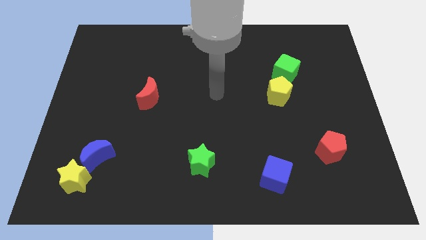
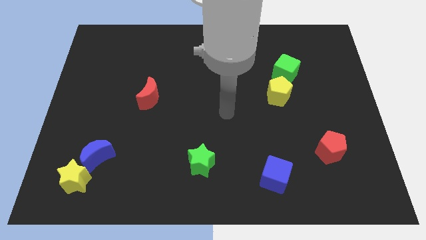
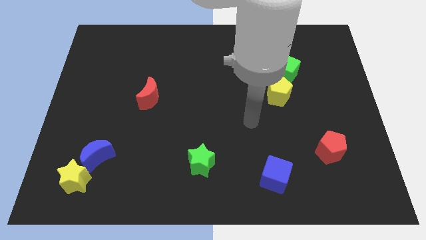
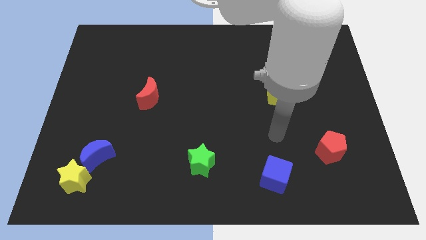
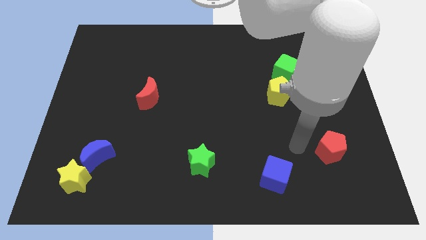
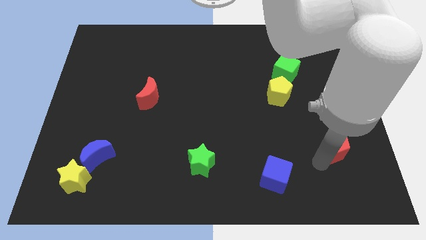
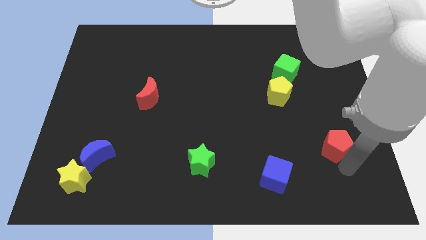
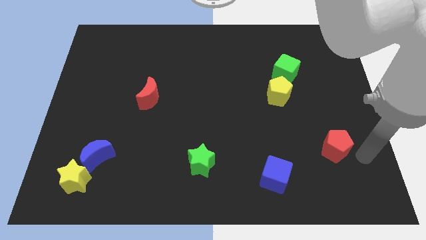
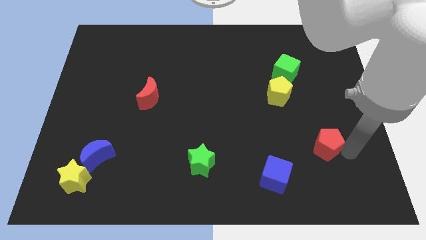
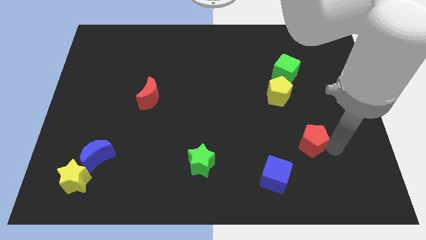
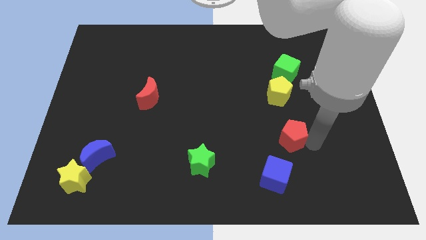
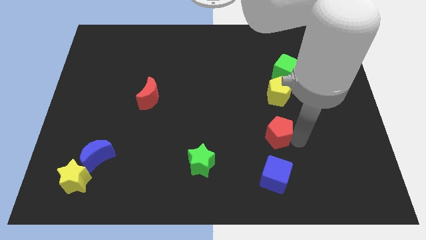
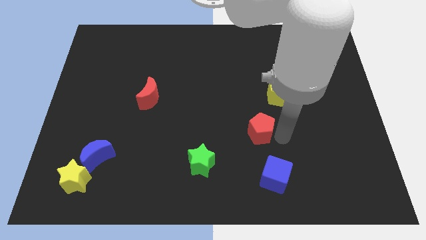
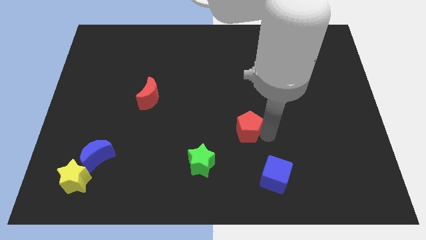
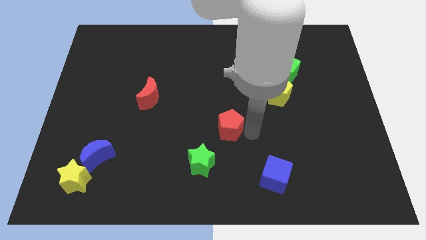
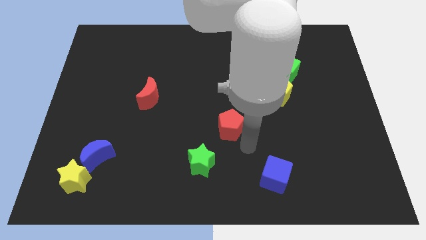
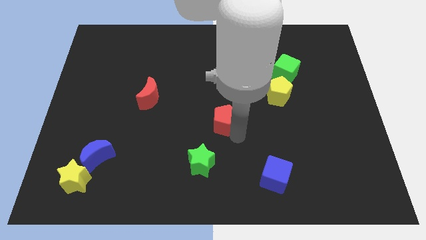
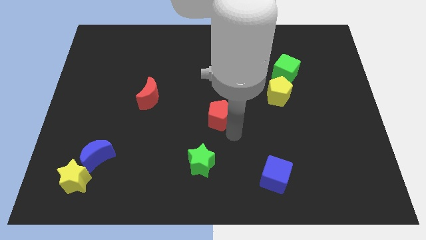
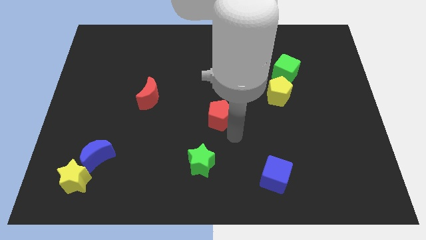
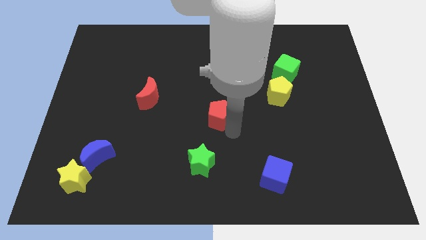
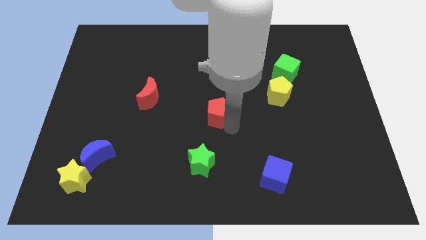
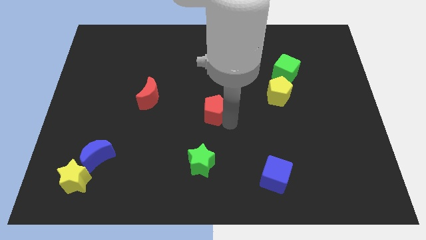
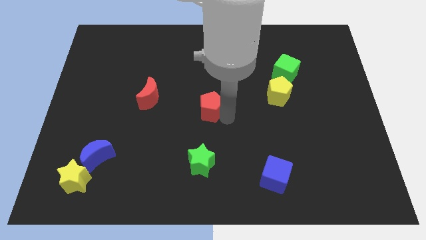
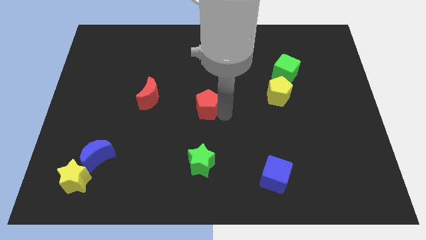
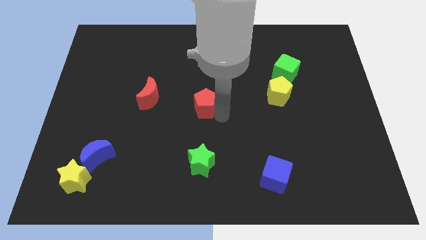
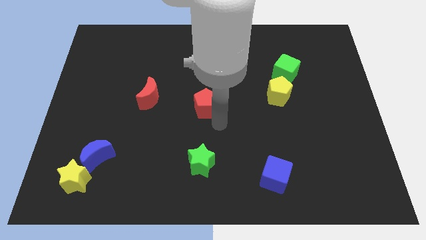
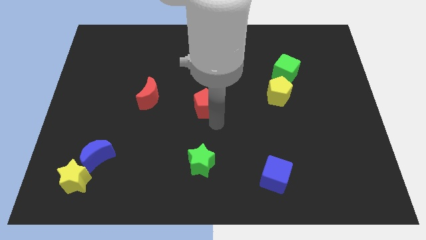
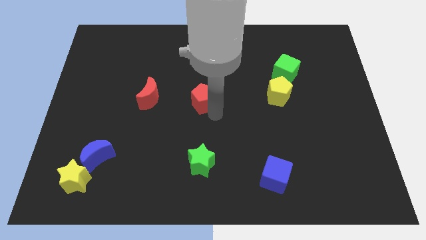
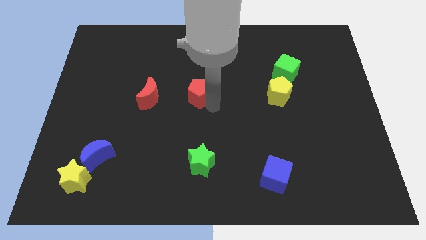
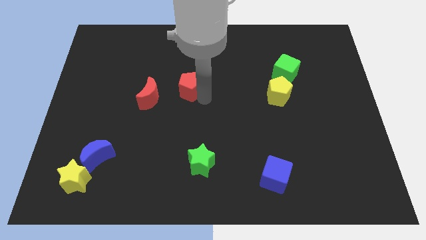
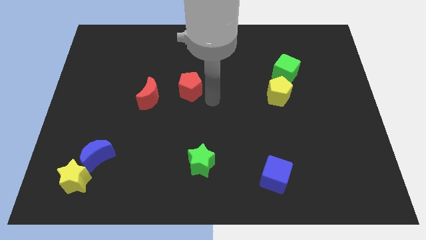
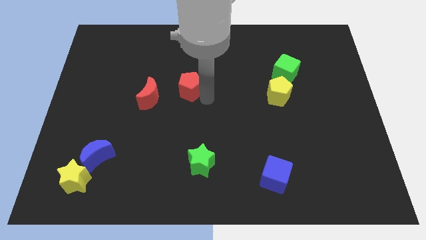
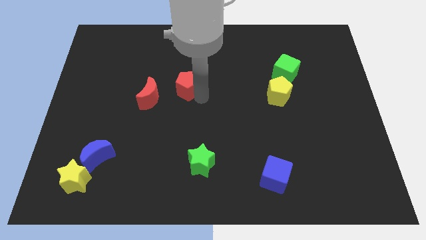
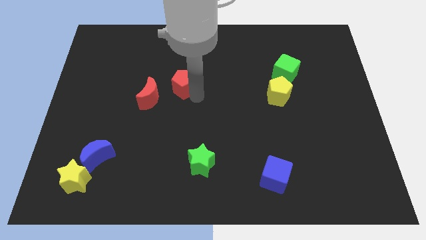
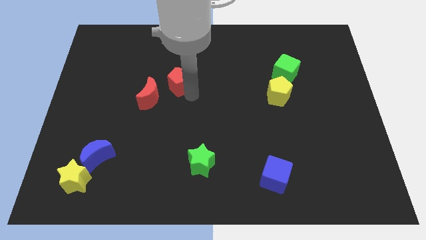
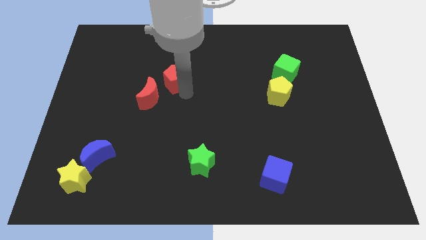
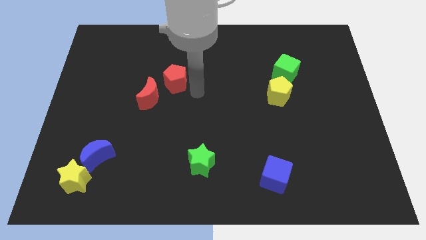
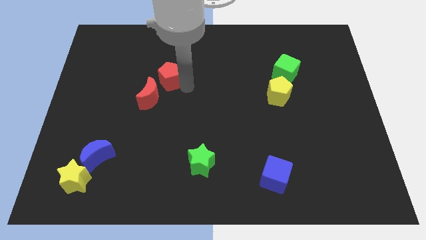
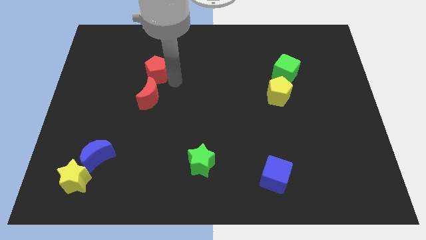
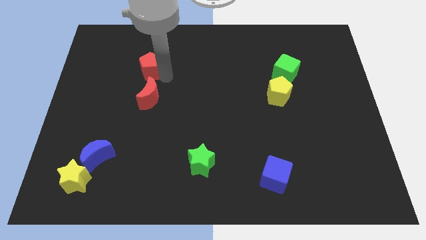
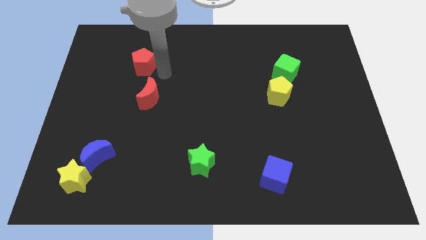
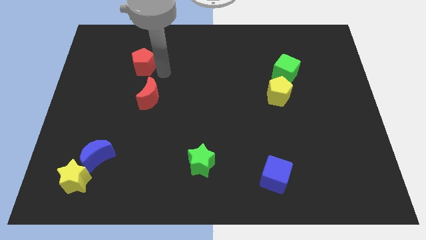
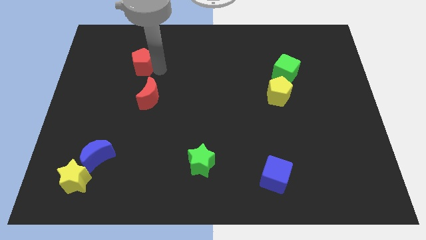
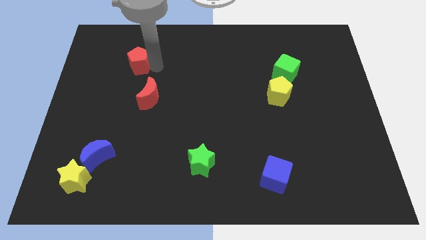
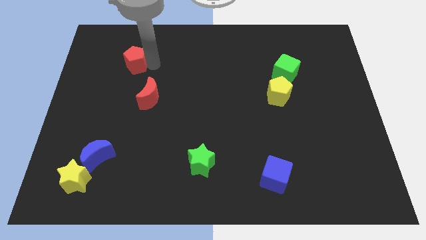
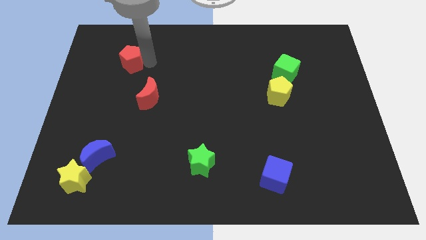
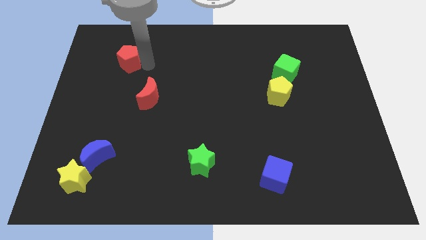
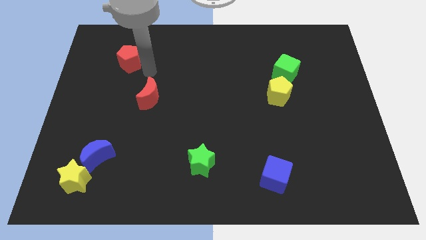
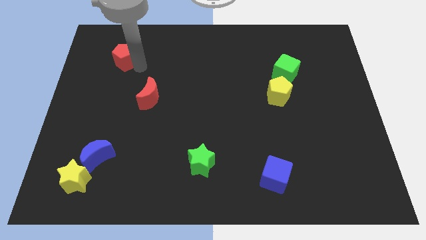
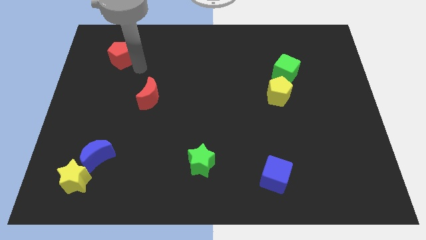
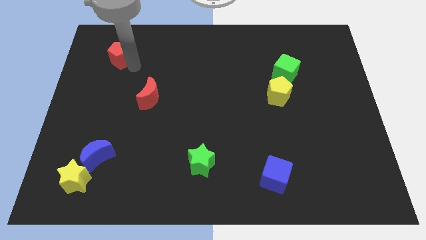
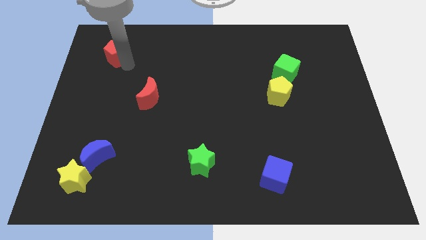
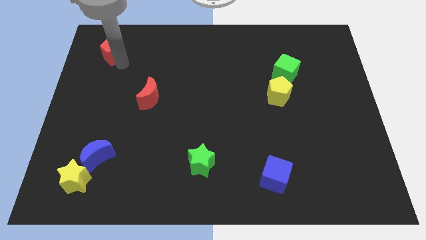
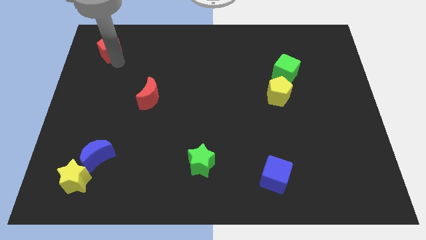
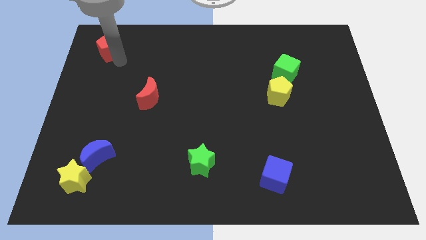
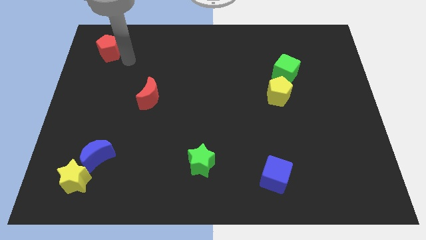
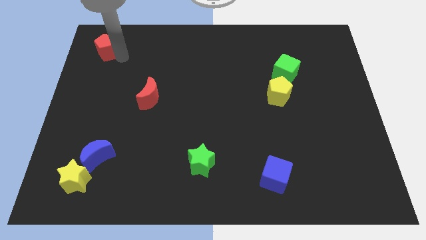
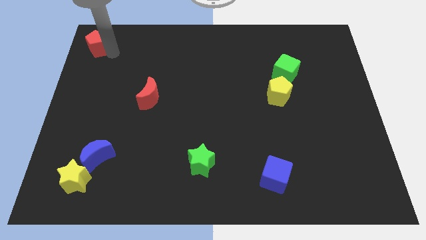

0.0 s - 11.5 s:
move the red pentagon to the upper left corner
